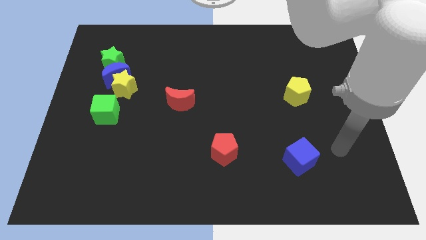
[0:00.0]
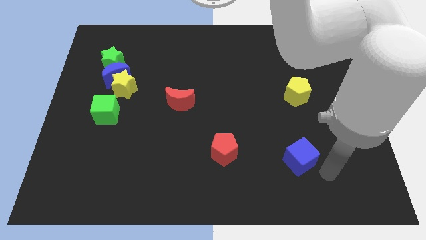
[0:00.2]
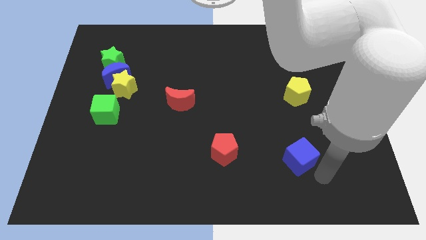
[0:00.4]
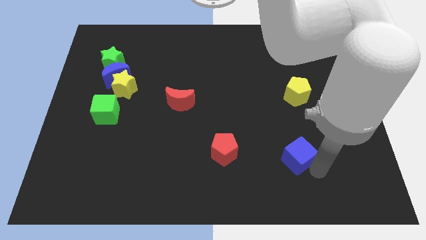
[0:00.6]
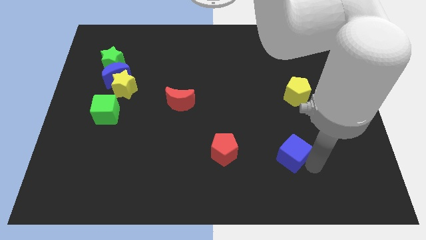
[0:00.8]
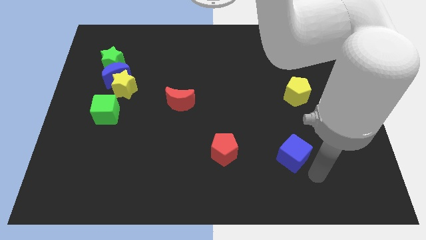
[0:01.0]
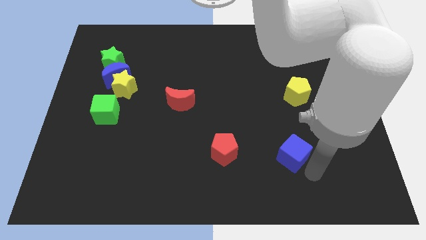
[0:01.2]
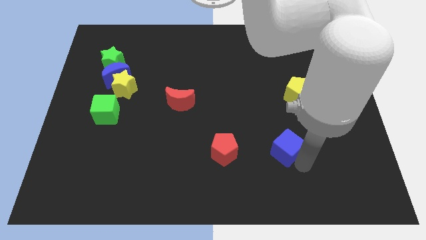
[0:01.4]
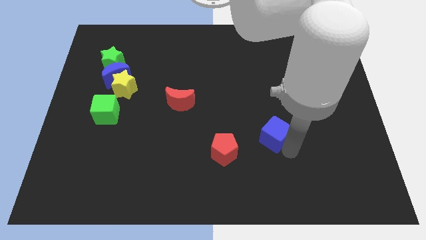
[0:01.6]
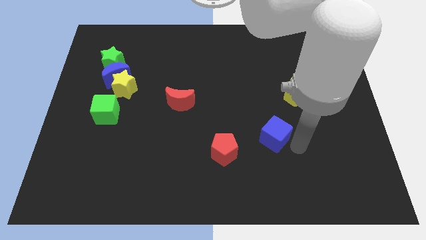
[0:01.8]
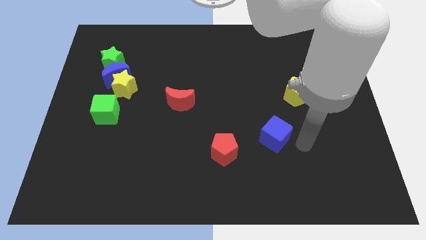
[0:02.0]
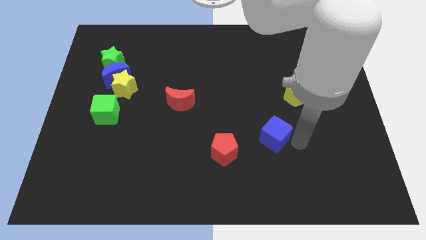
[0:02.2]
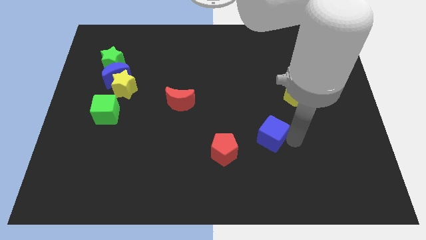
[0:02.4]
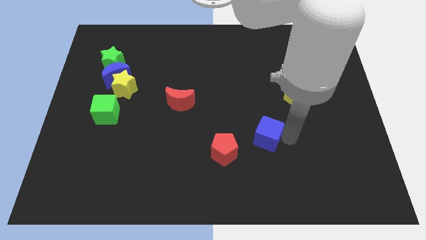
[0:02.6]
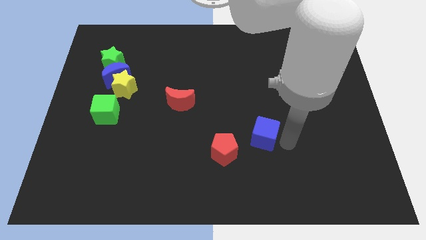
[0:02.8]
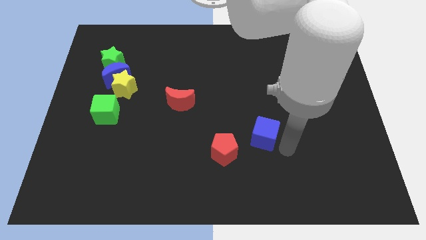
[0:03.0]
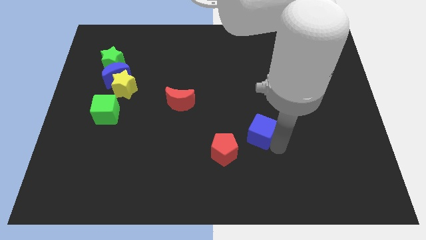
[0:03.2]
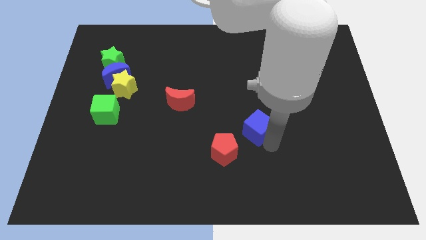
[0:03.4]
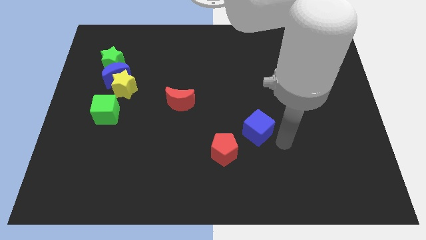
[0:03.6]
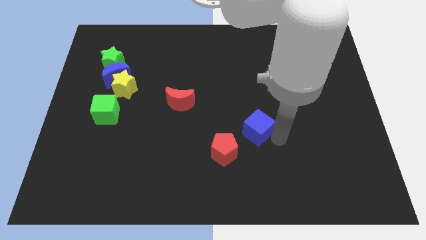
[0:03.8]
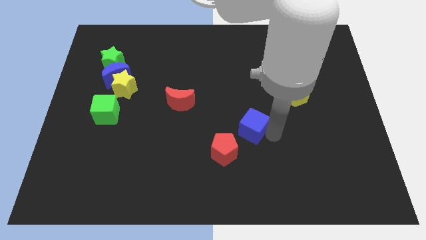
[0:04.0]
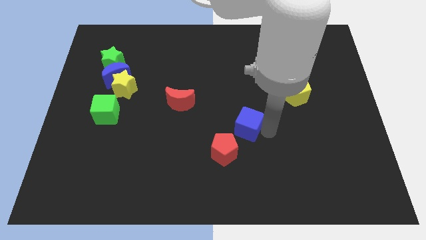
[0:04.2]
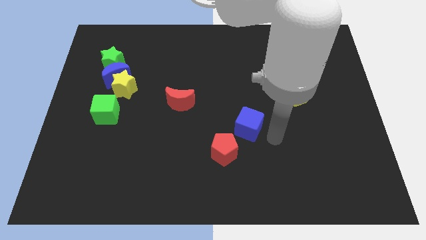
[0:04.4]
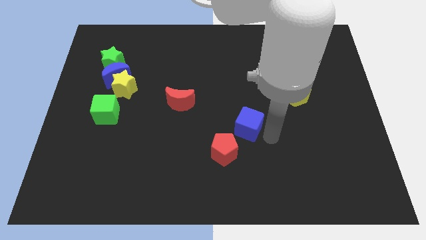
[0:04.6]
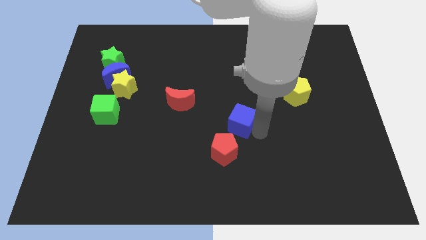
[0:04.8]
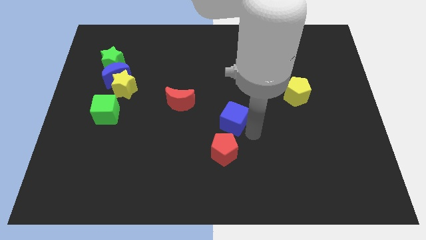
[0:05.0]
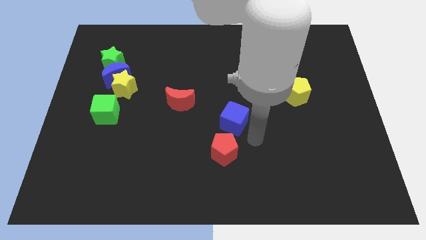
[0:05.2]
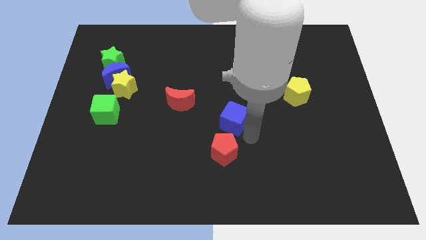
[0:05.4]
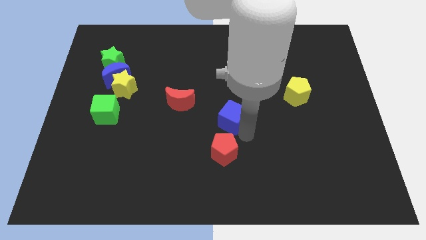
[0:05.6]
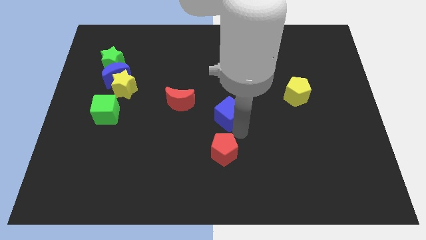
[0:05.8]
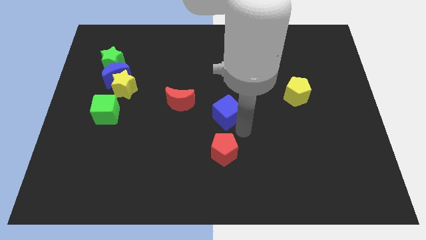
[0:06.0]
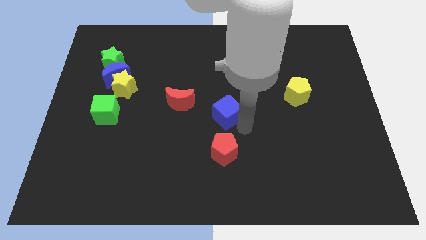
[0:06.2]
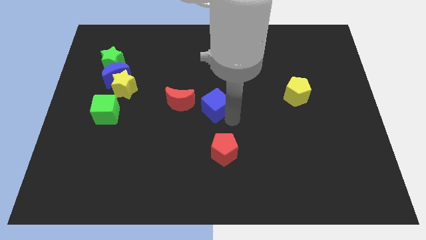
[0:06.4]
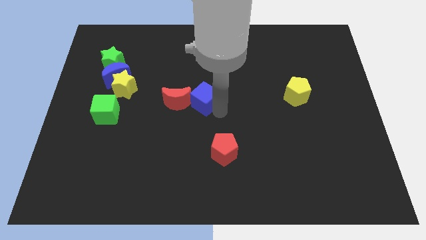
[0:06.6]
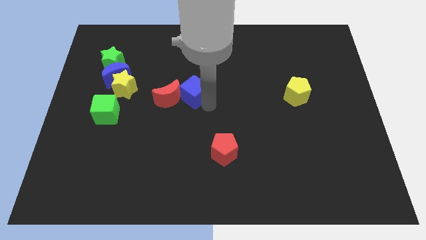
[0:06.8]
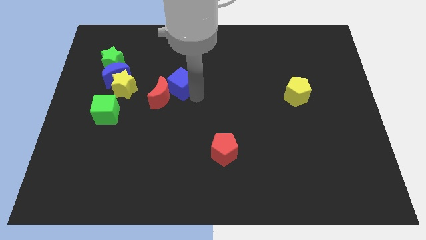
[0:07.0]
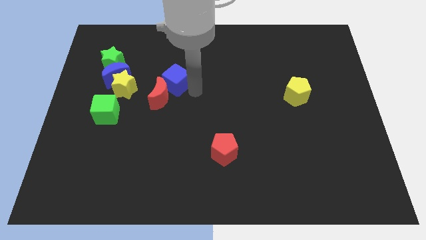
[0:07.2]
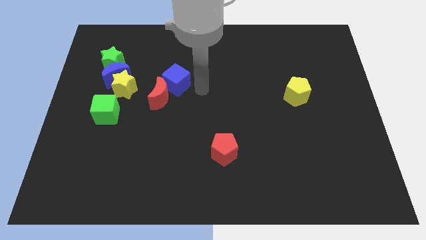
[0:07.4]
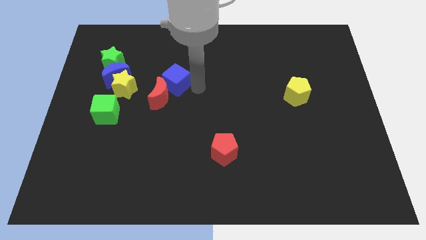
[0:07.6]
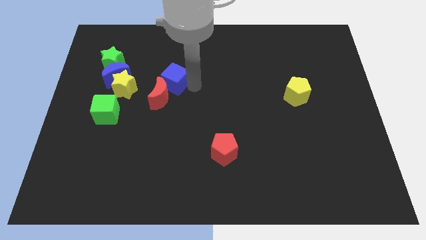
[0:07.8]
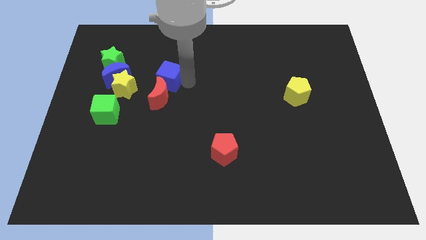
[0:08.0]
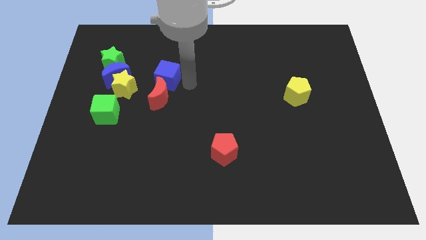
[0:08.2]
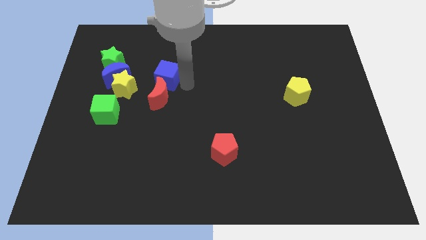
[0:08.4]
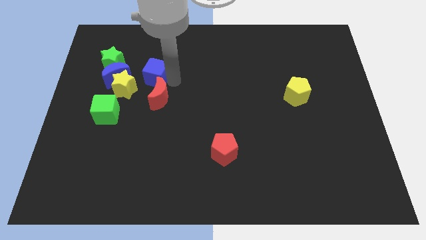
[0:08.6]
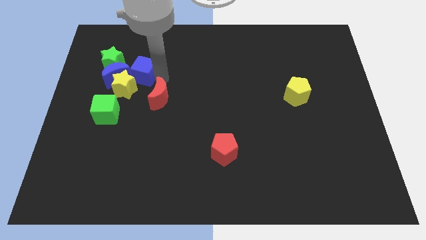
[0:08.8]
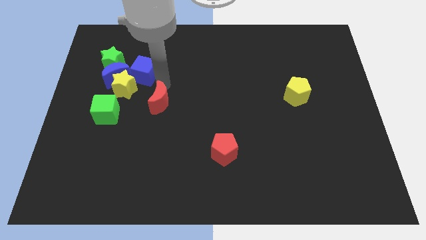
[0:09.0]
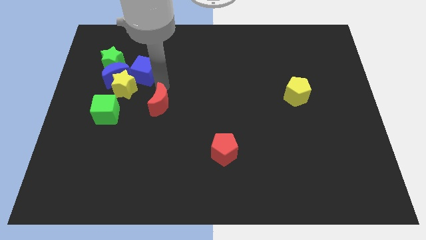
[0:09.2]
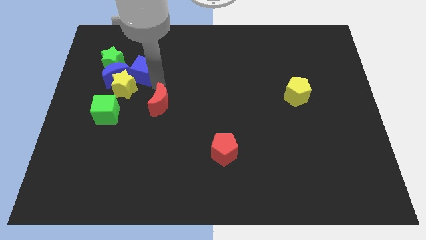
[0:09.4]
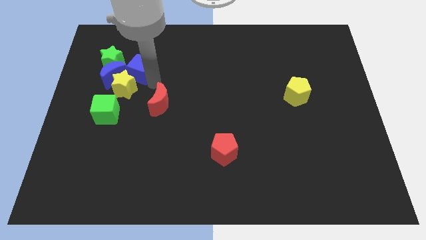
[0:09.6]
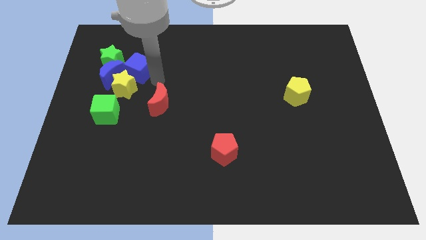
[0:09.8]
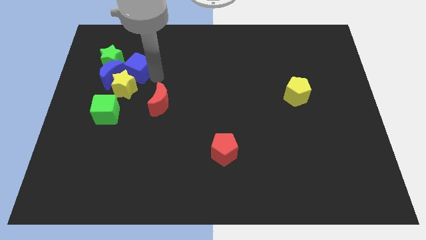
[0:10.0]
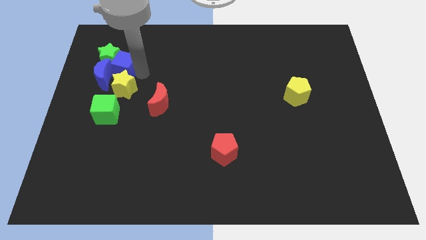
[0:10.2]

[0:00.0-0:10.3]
move the blue cube to the green star

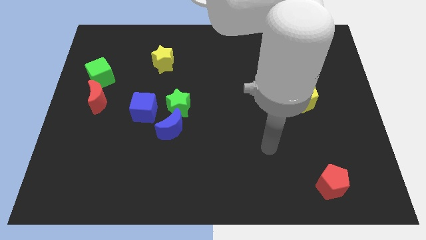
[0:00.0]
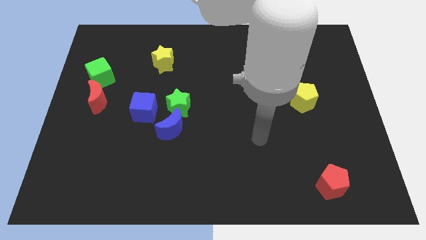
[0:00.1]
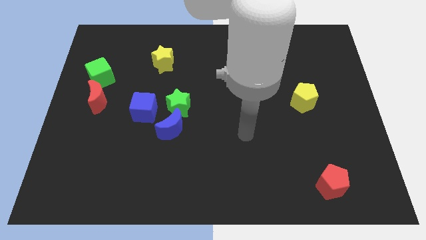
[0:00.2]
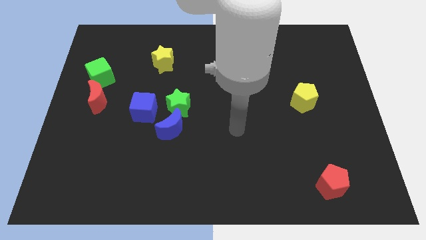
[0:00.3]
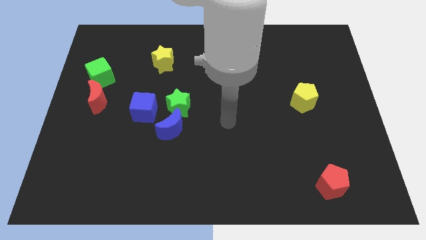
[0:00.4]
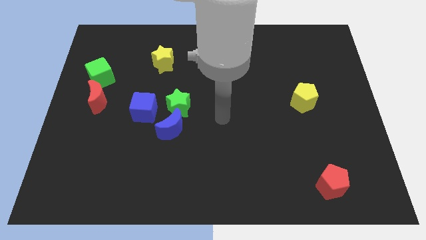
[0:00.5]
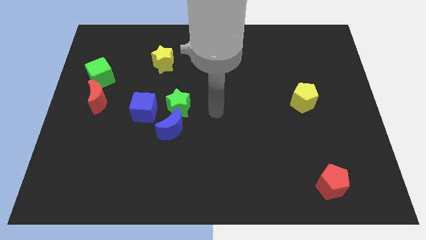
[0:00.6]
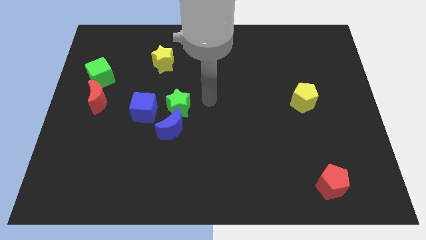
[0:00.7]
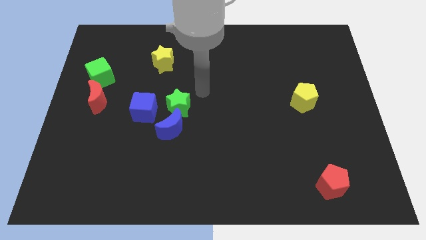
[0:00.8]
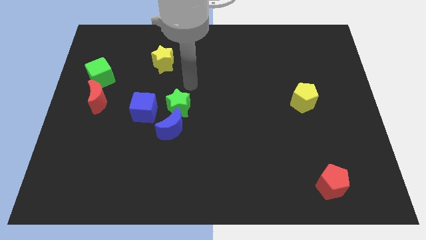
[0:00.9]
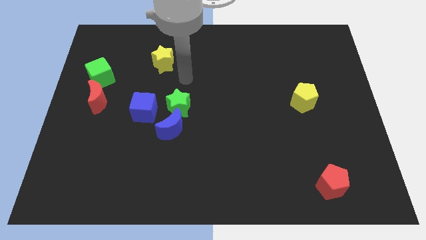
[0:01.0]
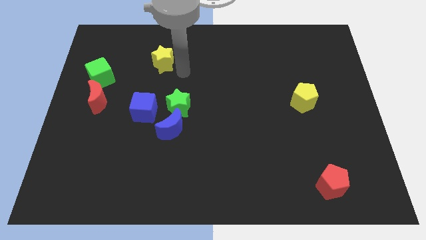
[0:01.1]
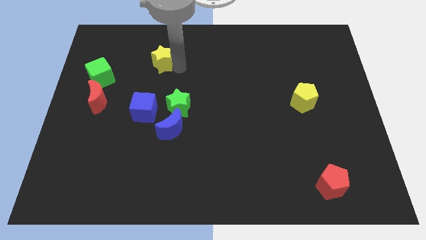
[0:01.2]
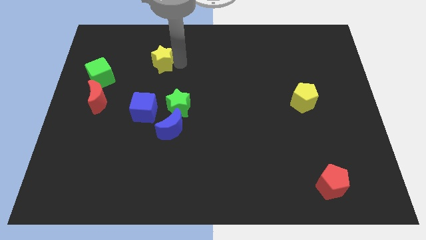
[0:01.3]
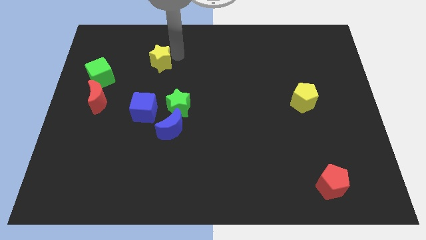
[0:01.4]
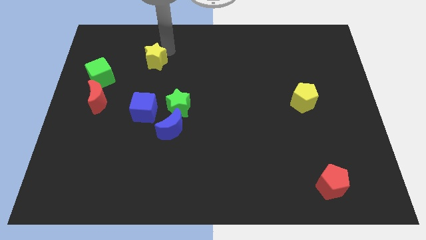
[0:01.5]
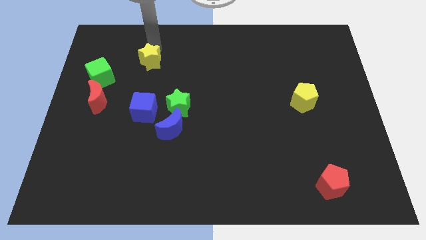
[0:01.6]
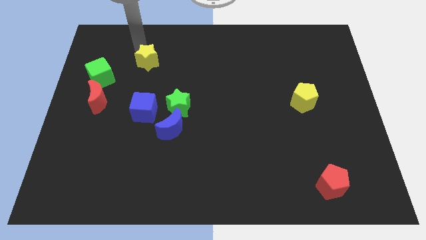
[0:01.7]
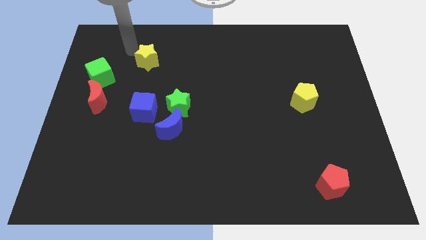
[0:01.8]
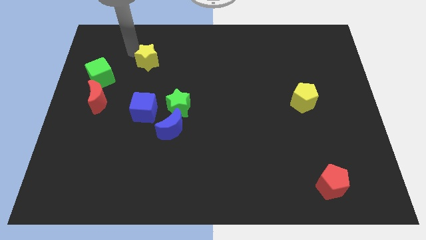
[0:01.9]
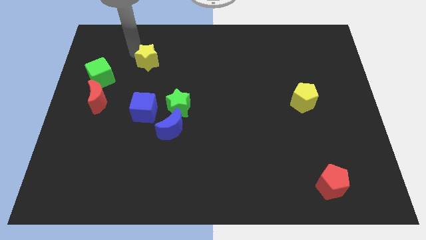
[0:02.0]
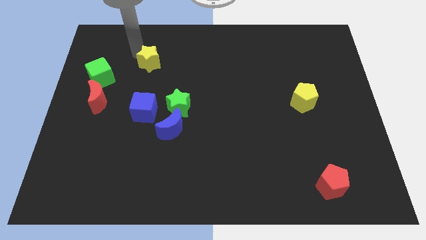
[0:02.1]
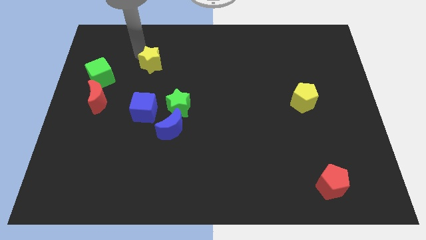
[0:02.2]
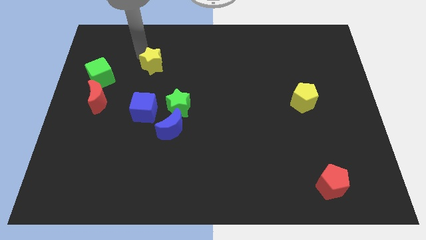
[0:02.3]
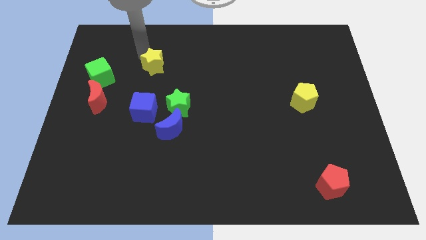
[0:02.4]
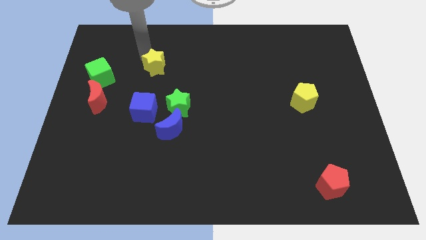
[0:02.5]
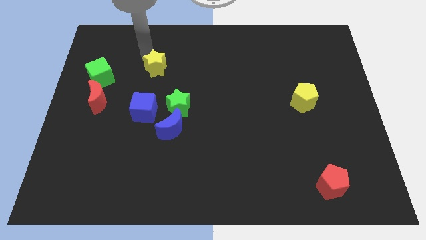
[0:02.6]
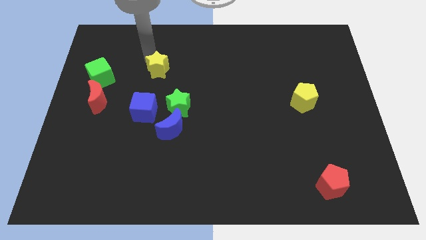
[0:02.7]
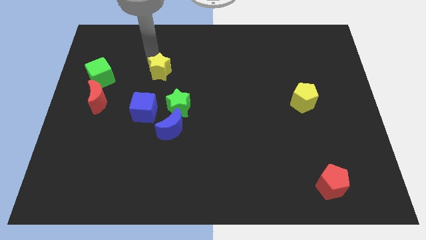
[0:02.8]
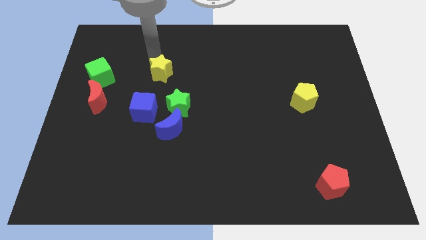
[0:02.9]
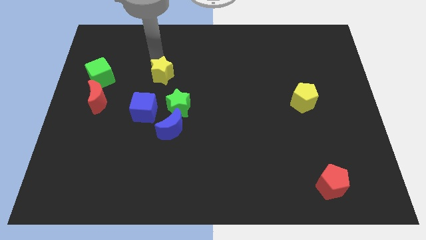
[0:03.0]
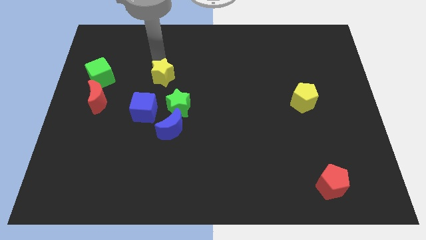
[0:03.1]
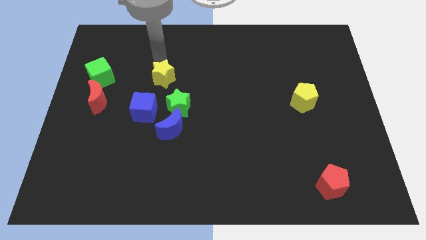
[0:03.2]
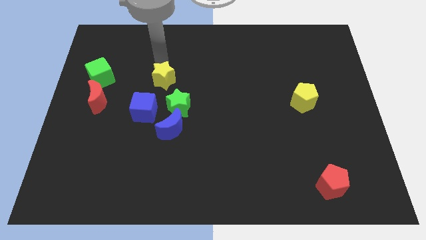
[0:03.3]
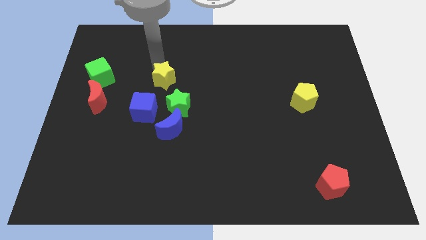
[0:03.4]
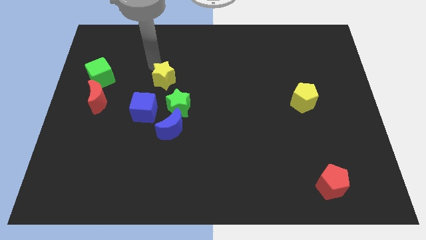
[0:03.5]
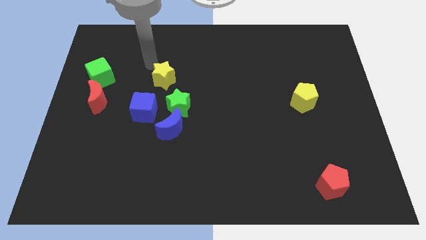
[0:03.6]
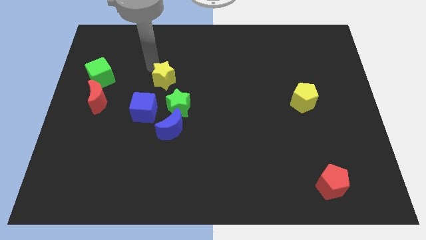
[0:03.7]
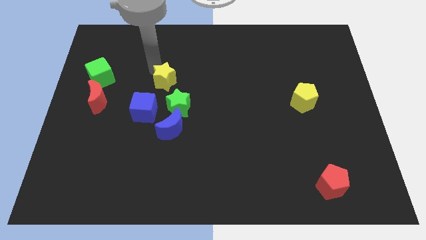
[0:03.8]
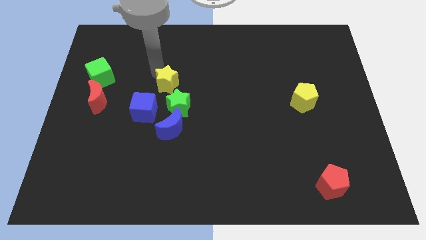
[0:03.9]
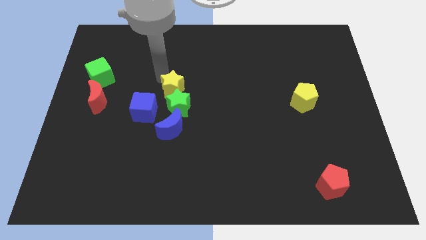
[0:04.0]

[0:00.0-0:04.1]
push the yellow star towards the green star
